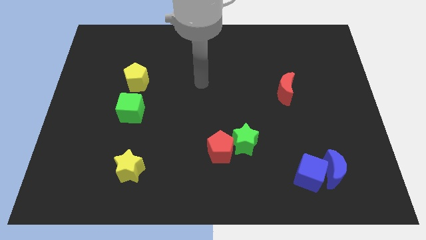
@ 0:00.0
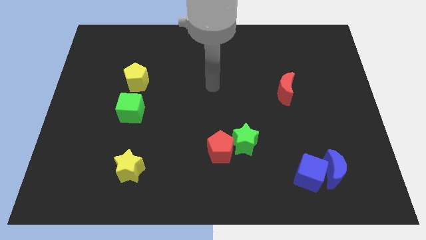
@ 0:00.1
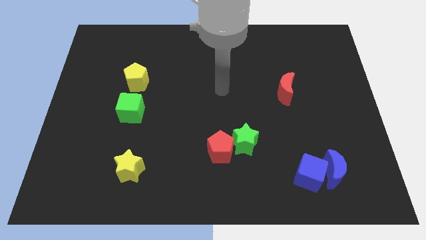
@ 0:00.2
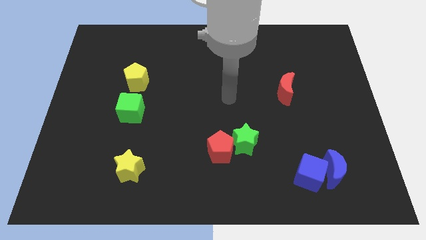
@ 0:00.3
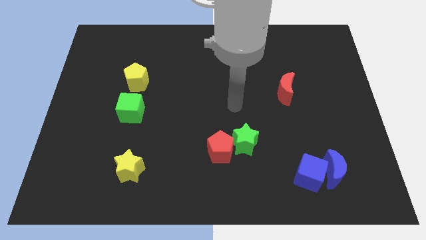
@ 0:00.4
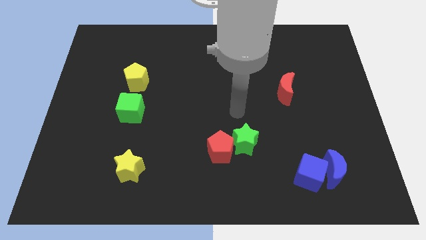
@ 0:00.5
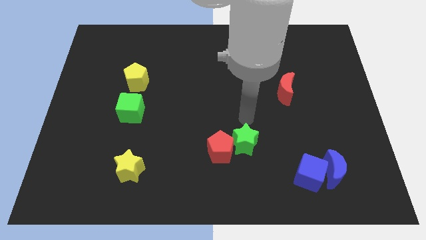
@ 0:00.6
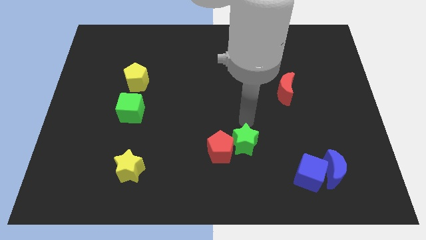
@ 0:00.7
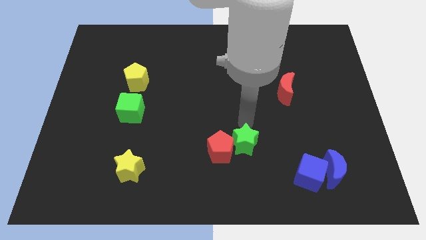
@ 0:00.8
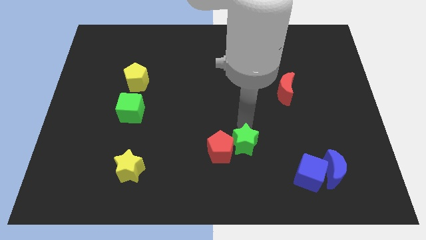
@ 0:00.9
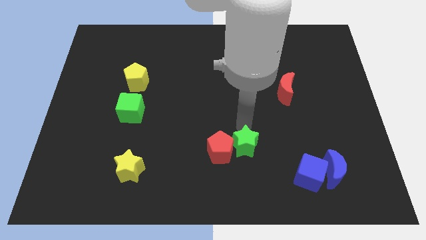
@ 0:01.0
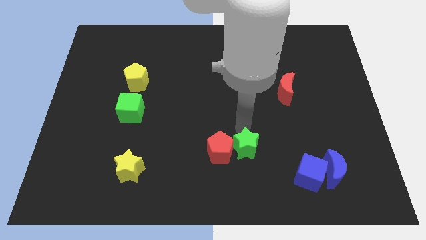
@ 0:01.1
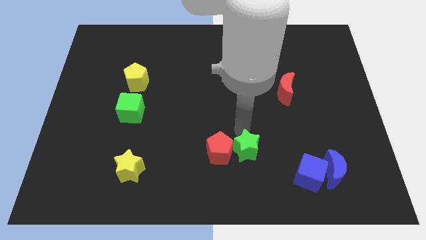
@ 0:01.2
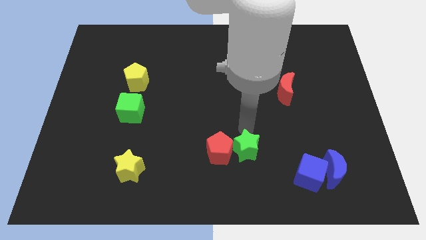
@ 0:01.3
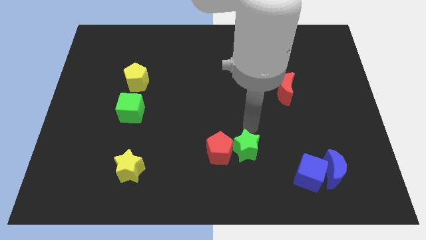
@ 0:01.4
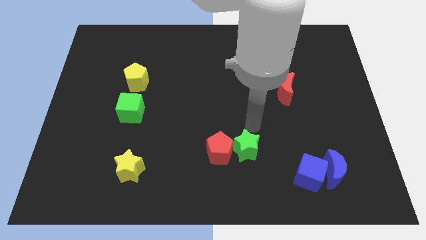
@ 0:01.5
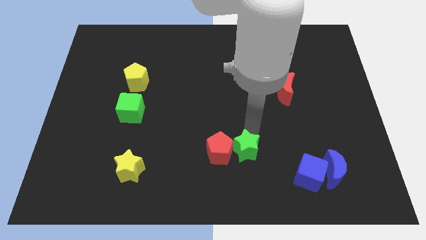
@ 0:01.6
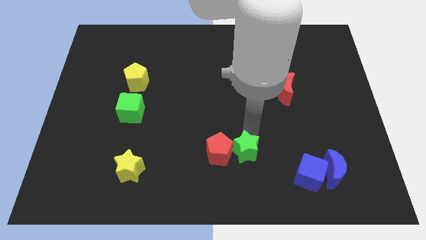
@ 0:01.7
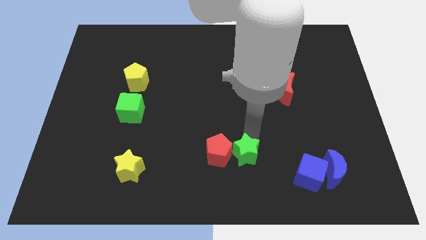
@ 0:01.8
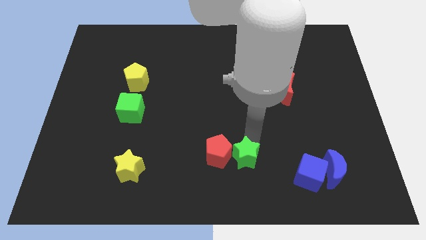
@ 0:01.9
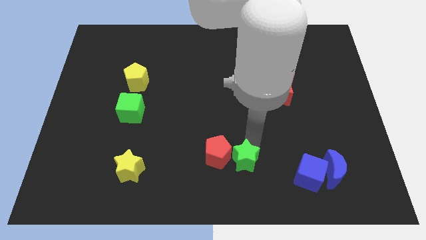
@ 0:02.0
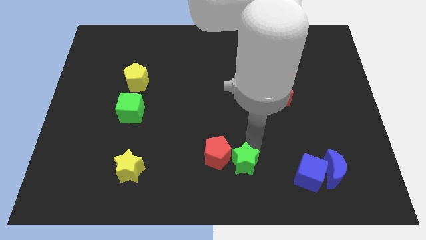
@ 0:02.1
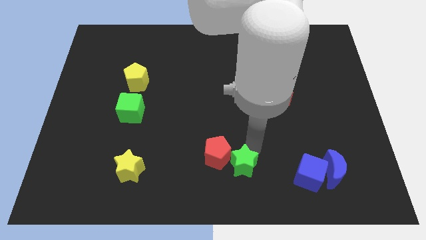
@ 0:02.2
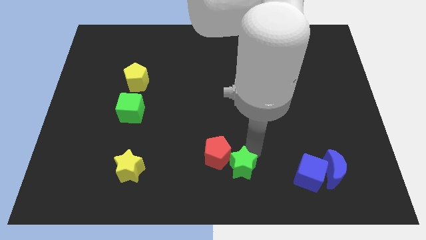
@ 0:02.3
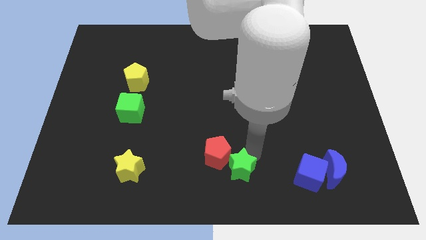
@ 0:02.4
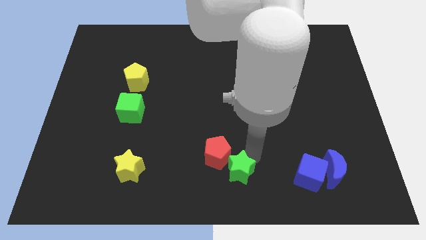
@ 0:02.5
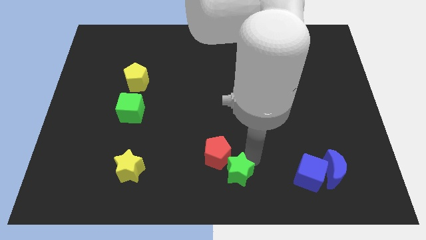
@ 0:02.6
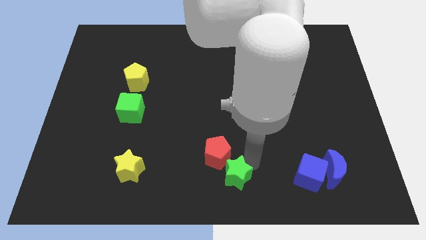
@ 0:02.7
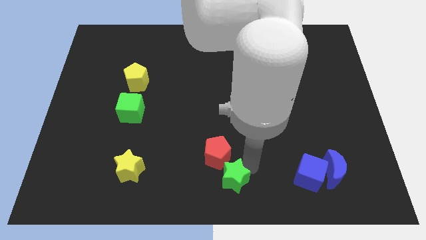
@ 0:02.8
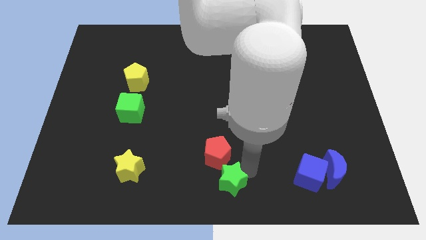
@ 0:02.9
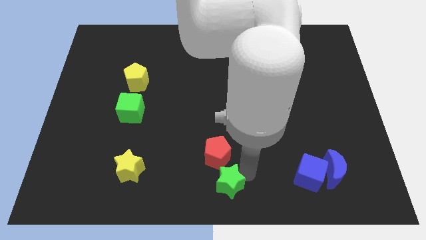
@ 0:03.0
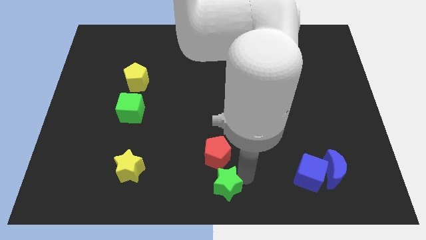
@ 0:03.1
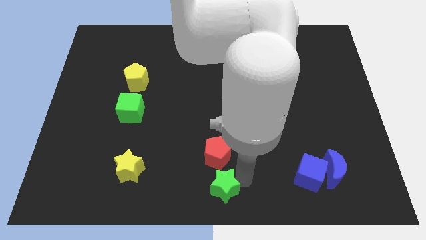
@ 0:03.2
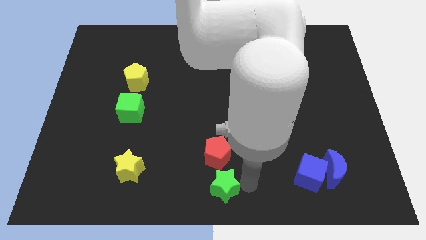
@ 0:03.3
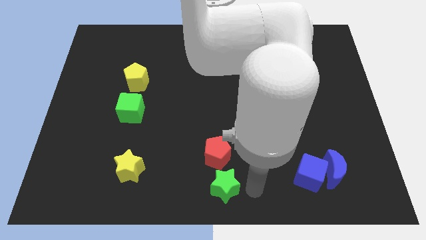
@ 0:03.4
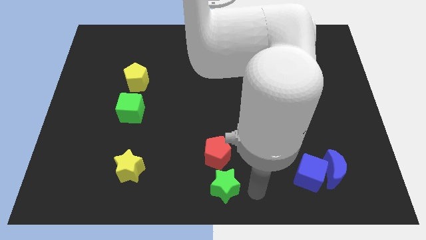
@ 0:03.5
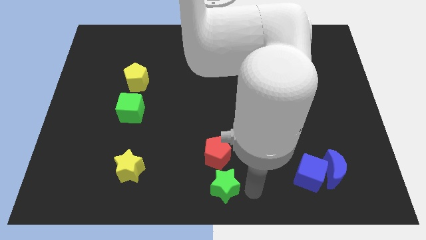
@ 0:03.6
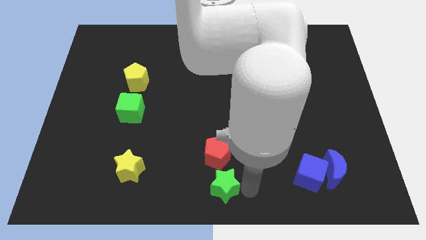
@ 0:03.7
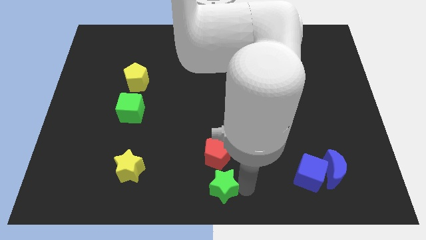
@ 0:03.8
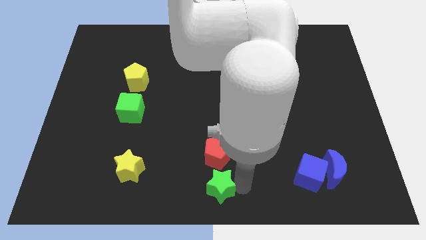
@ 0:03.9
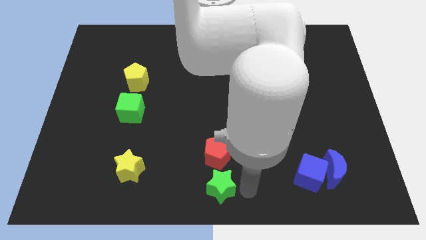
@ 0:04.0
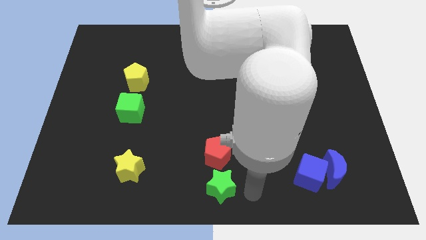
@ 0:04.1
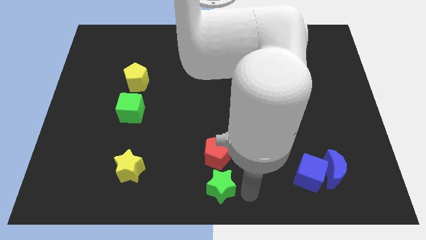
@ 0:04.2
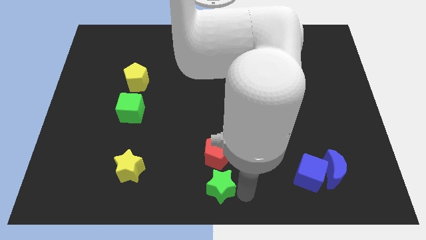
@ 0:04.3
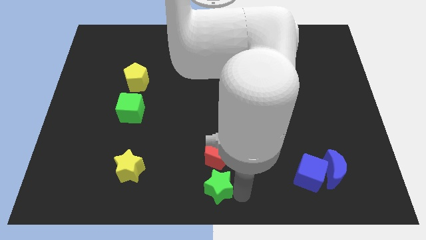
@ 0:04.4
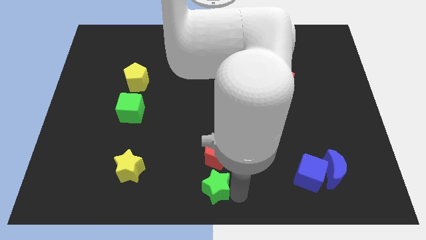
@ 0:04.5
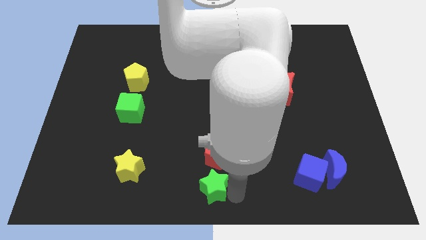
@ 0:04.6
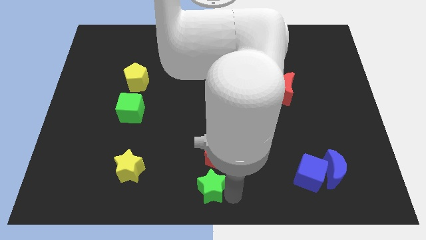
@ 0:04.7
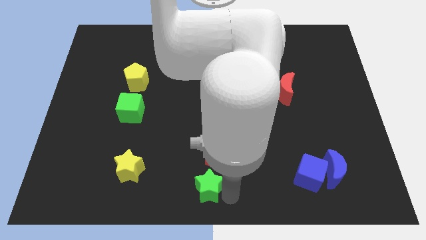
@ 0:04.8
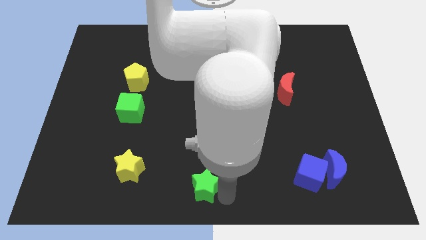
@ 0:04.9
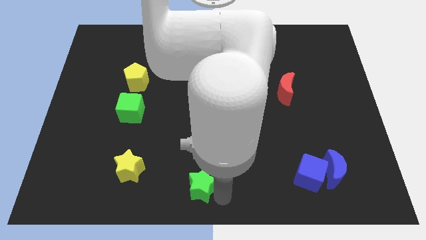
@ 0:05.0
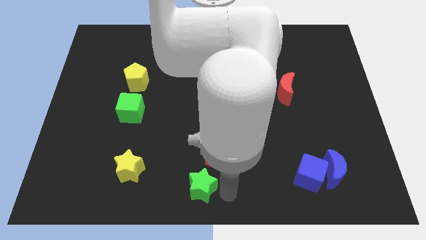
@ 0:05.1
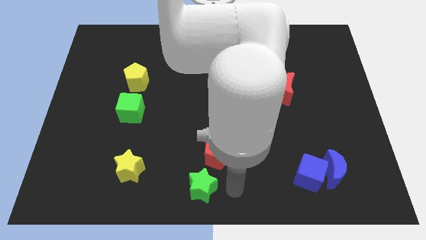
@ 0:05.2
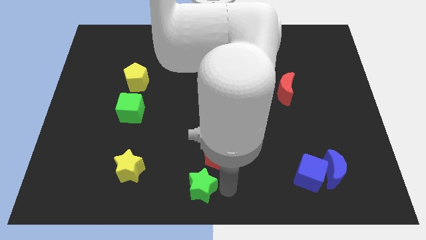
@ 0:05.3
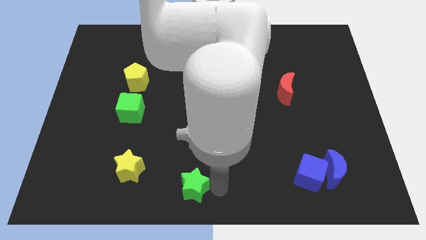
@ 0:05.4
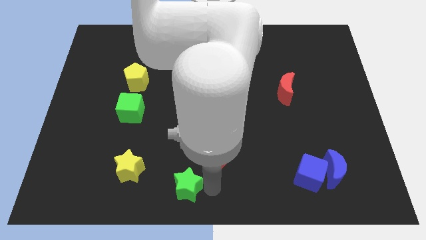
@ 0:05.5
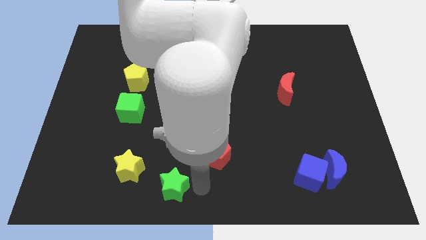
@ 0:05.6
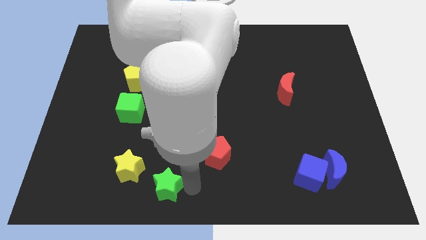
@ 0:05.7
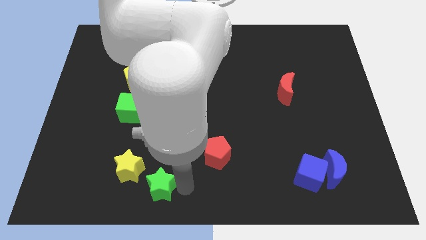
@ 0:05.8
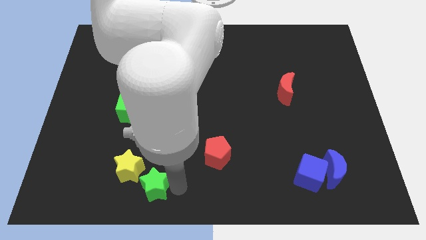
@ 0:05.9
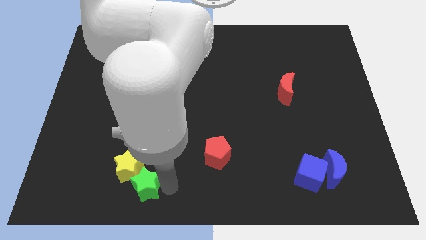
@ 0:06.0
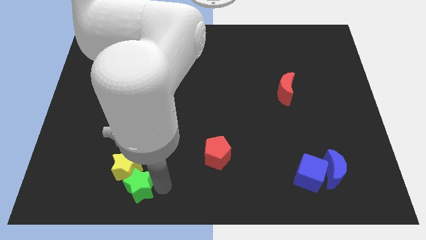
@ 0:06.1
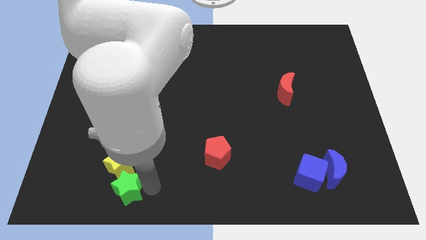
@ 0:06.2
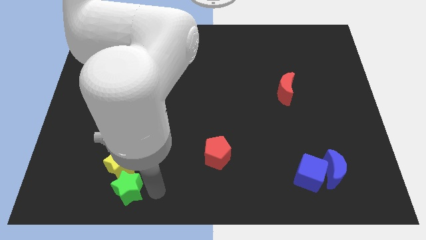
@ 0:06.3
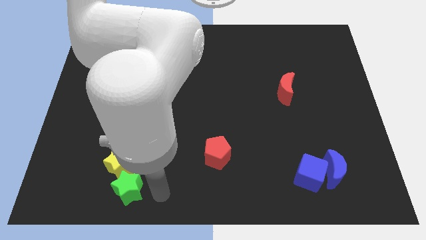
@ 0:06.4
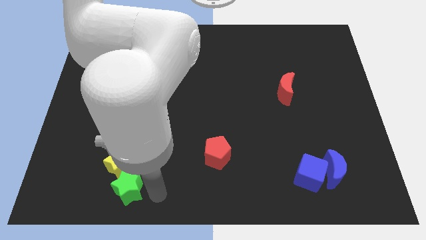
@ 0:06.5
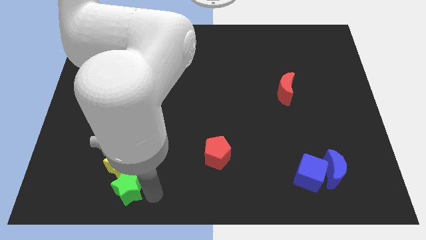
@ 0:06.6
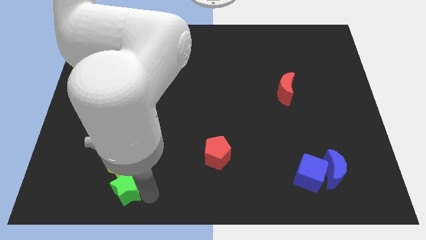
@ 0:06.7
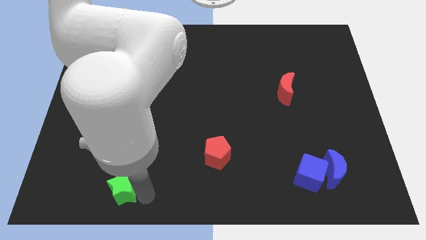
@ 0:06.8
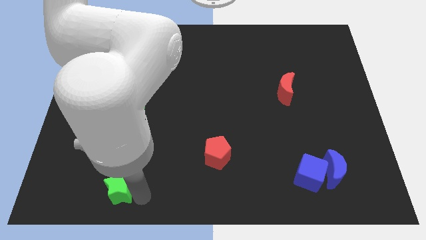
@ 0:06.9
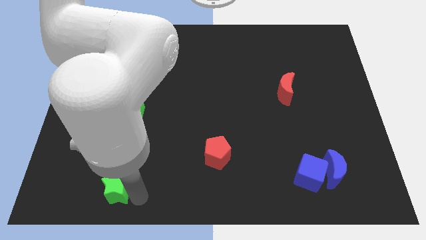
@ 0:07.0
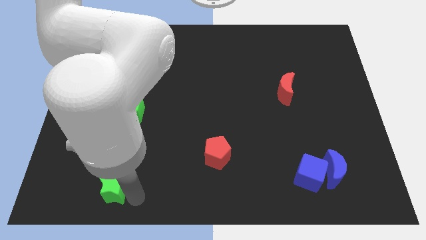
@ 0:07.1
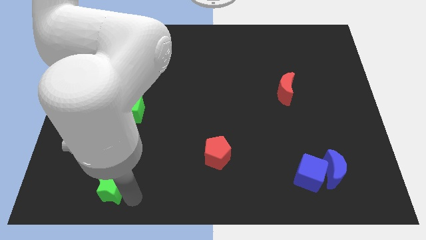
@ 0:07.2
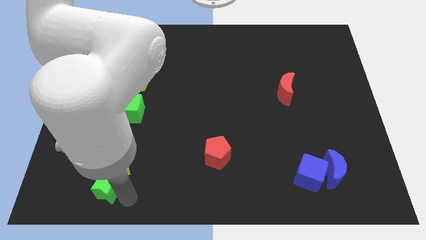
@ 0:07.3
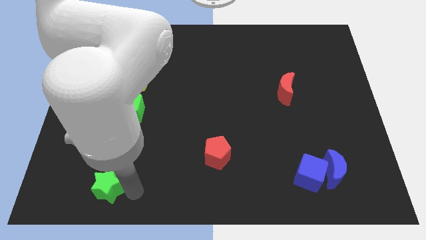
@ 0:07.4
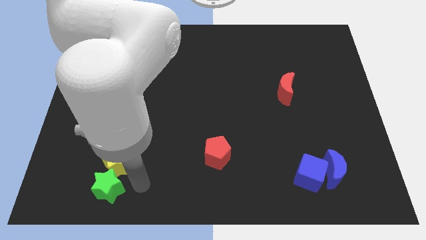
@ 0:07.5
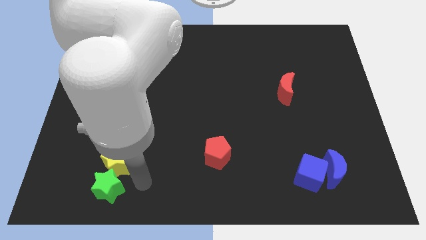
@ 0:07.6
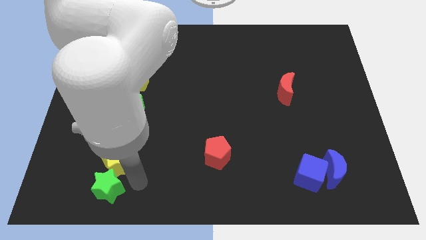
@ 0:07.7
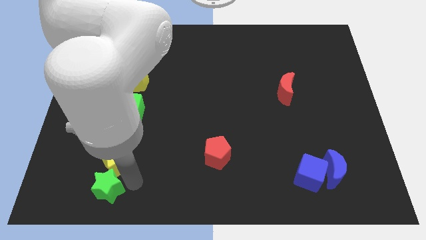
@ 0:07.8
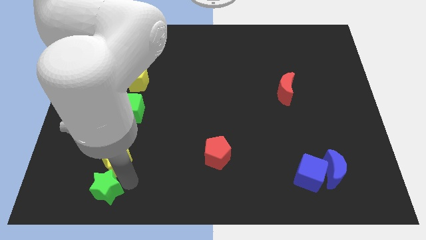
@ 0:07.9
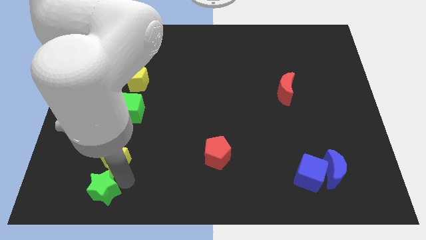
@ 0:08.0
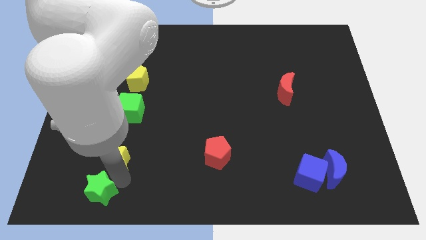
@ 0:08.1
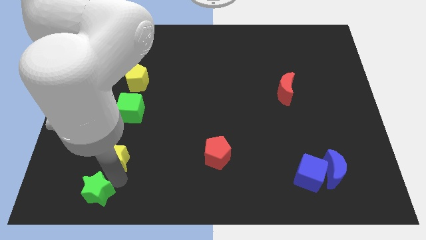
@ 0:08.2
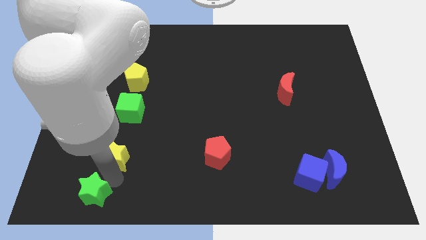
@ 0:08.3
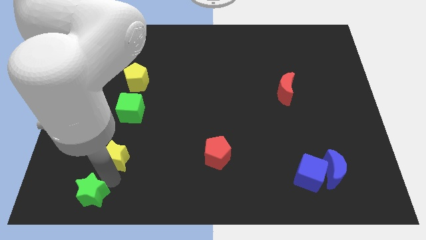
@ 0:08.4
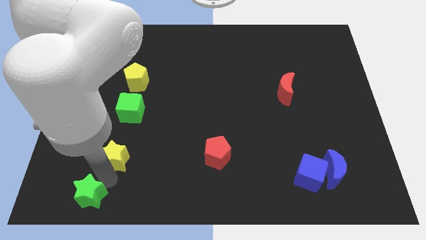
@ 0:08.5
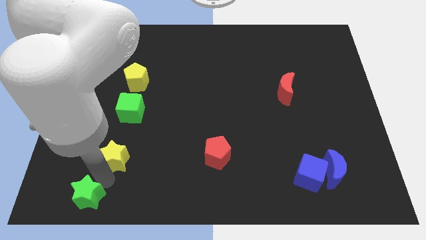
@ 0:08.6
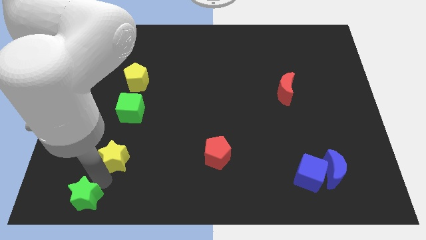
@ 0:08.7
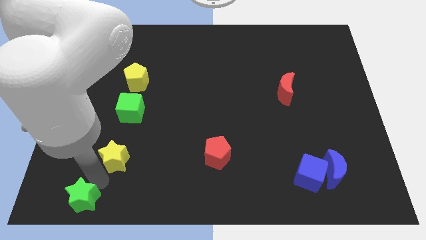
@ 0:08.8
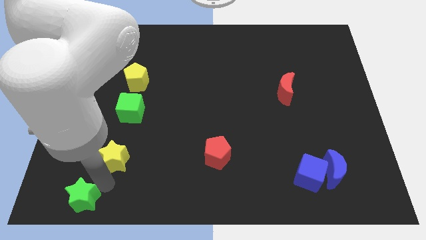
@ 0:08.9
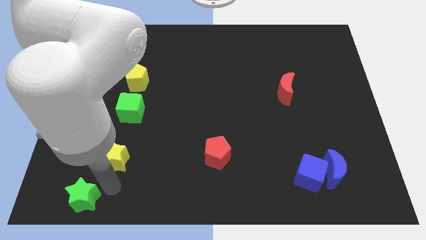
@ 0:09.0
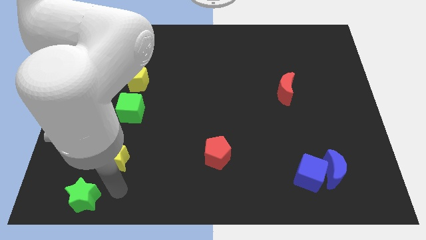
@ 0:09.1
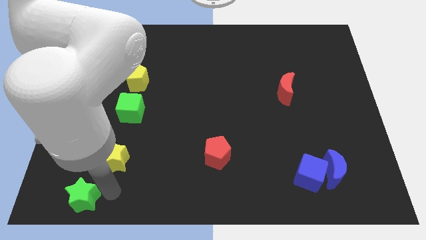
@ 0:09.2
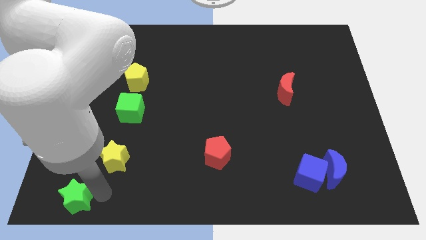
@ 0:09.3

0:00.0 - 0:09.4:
push the green star to the bottom left
